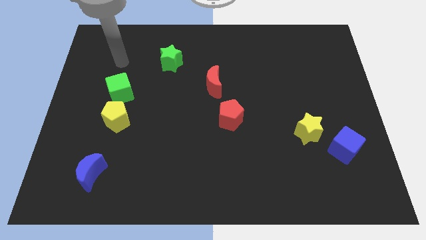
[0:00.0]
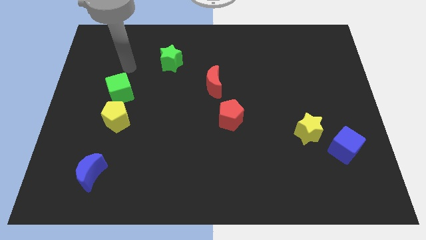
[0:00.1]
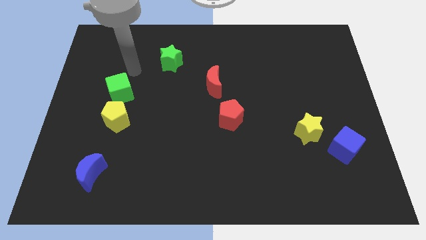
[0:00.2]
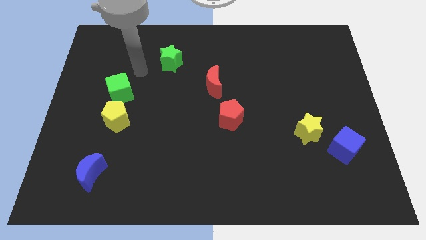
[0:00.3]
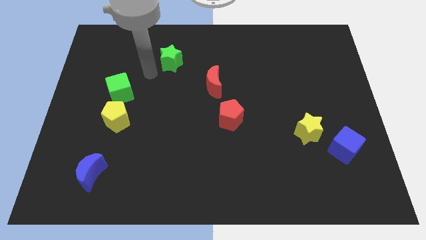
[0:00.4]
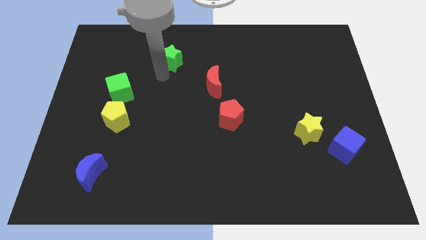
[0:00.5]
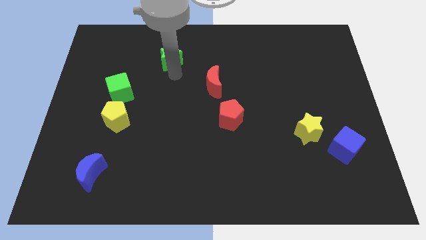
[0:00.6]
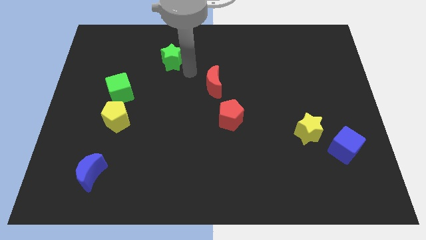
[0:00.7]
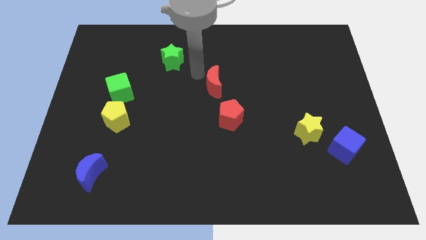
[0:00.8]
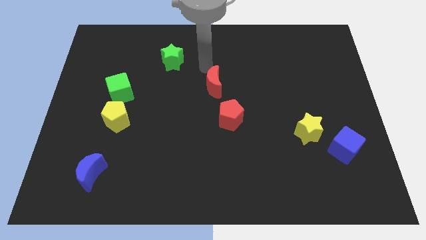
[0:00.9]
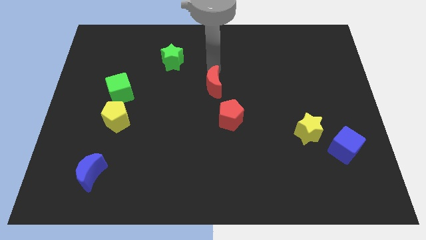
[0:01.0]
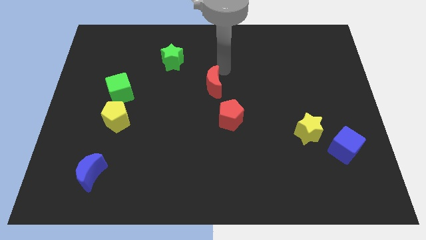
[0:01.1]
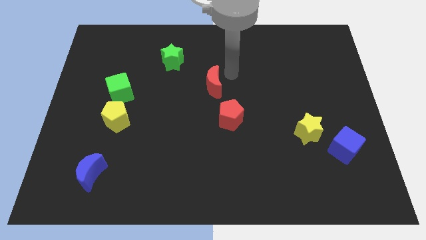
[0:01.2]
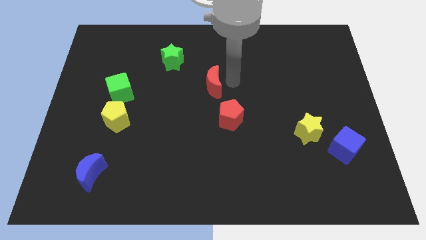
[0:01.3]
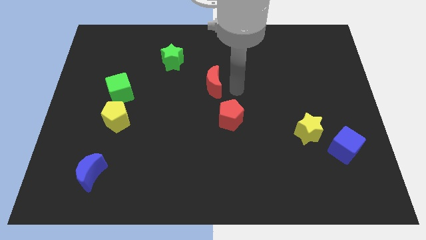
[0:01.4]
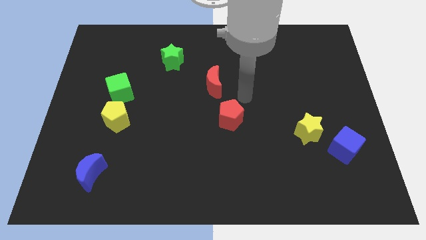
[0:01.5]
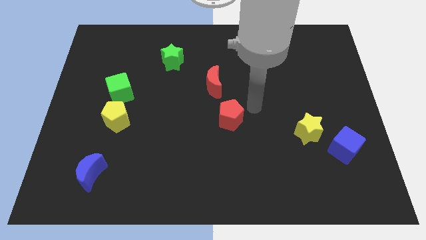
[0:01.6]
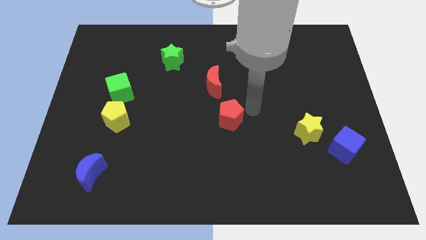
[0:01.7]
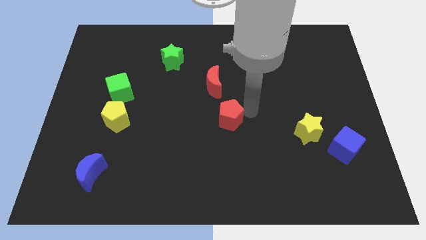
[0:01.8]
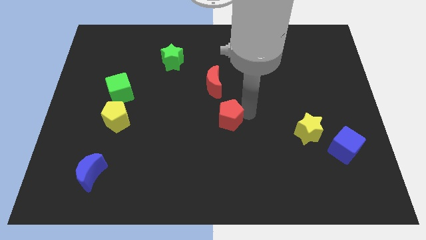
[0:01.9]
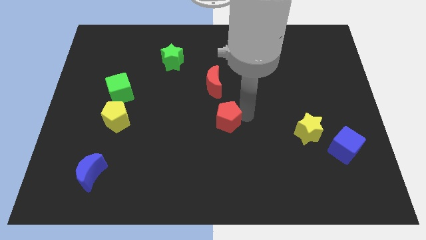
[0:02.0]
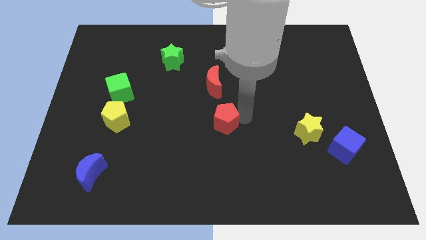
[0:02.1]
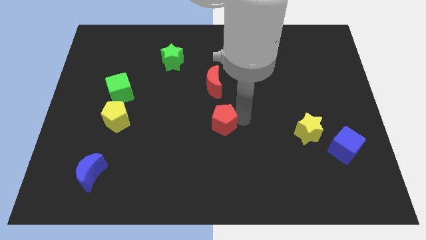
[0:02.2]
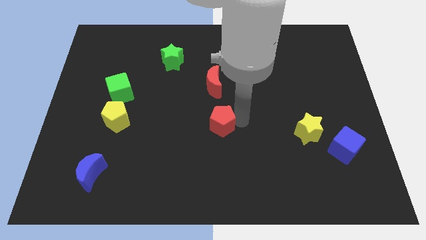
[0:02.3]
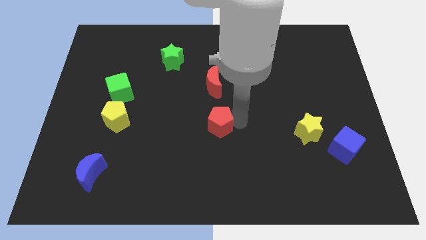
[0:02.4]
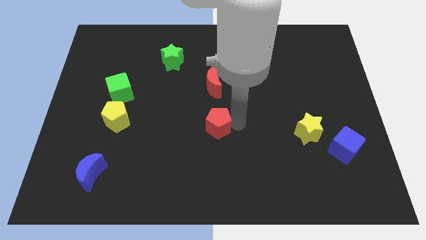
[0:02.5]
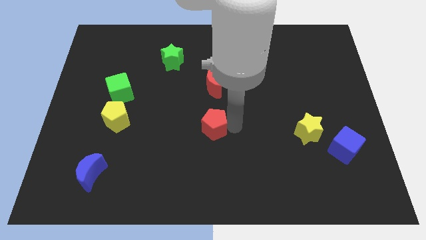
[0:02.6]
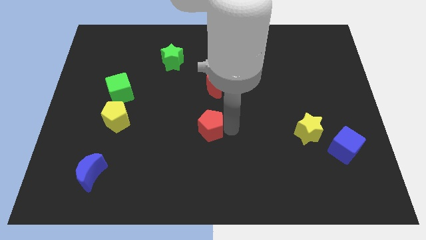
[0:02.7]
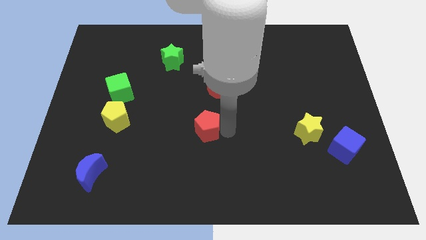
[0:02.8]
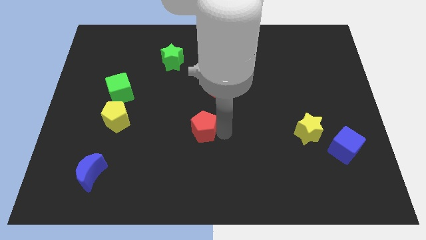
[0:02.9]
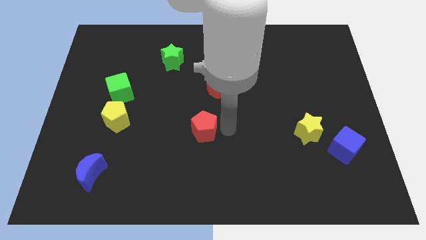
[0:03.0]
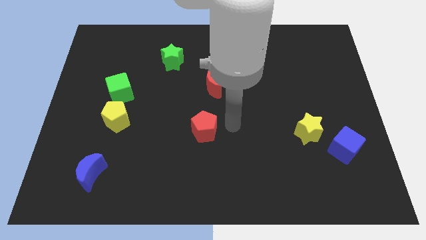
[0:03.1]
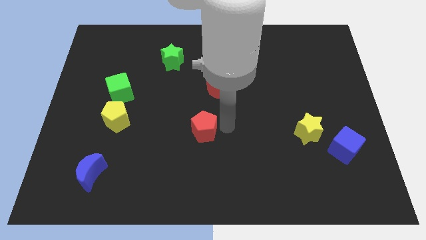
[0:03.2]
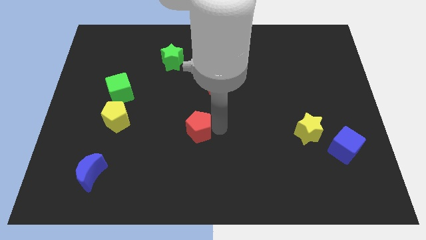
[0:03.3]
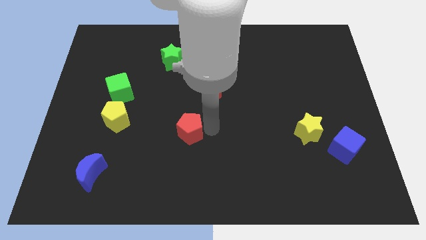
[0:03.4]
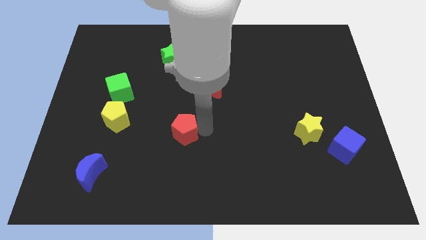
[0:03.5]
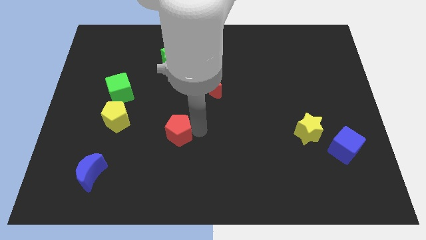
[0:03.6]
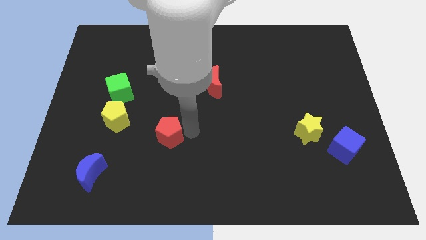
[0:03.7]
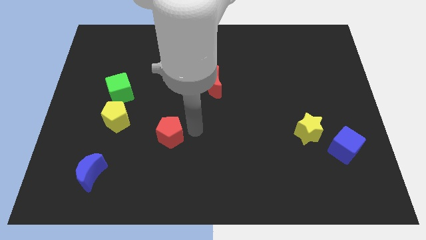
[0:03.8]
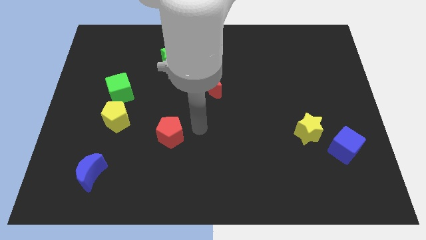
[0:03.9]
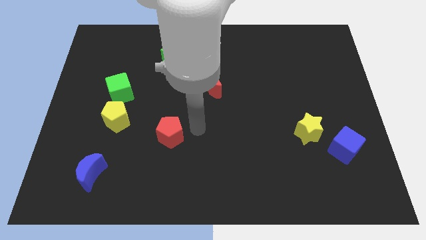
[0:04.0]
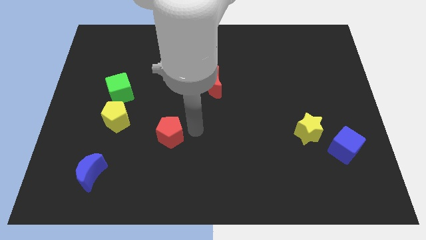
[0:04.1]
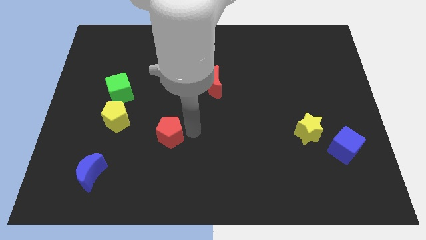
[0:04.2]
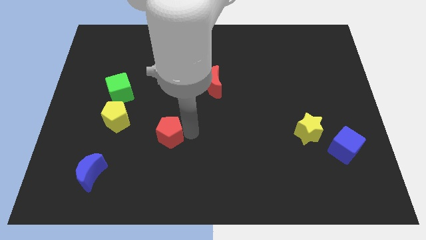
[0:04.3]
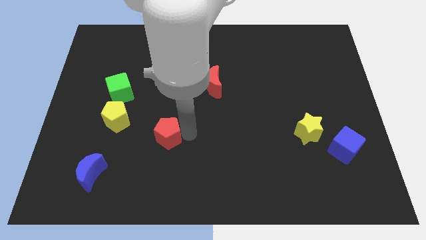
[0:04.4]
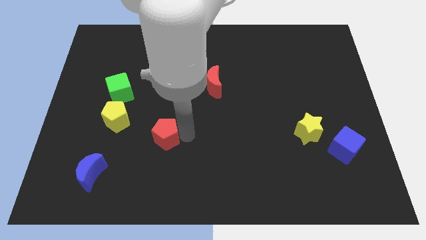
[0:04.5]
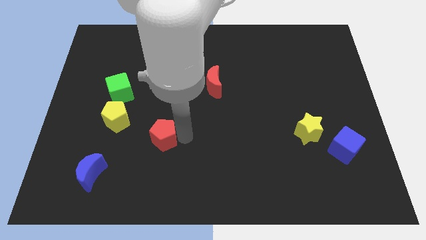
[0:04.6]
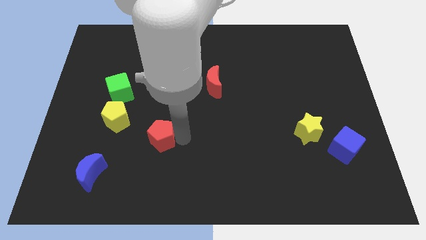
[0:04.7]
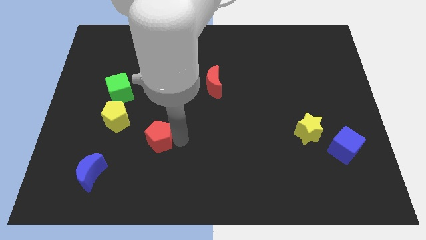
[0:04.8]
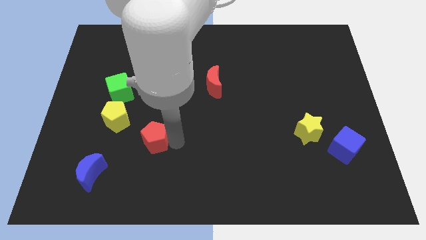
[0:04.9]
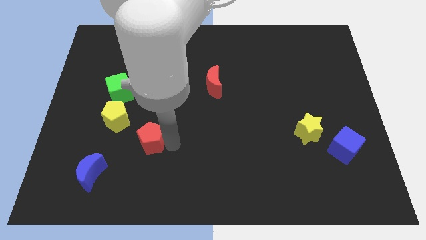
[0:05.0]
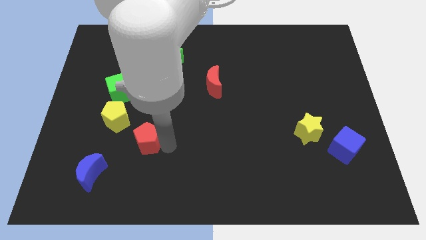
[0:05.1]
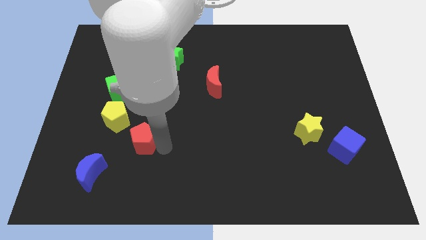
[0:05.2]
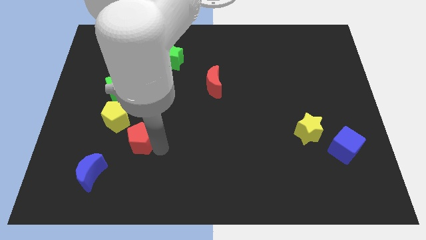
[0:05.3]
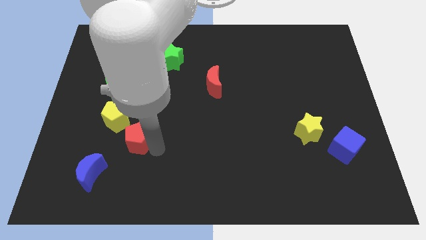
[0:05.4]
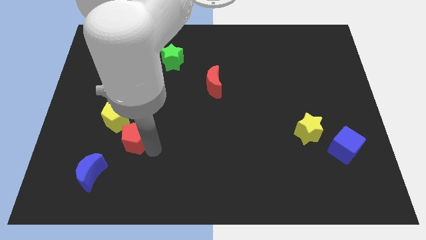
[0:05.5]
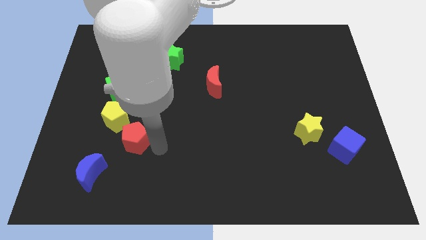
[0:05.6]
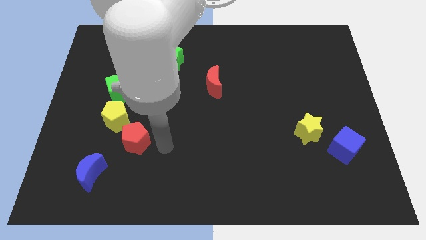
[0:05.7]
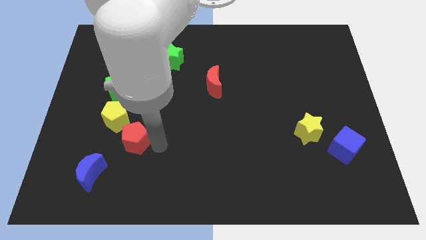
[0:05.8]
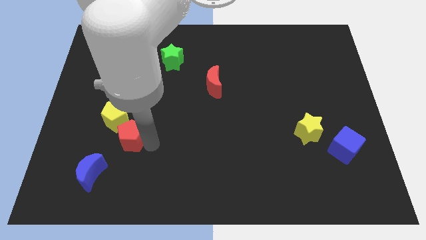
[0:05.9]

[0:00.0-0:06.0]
slide the red pentagon left

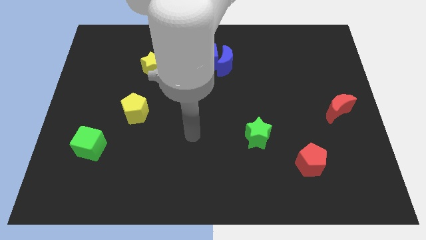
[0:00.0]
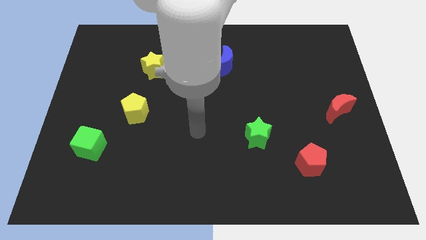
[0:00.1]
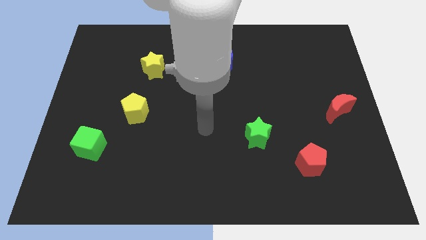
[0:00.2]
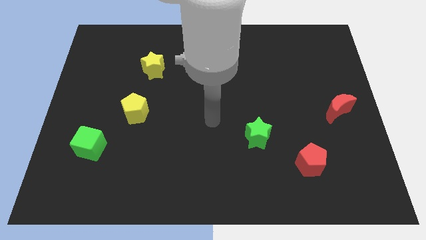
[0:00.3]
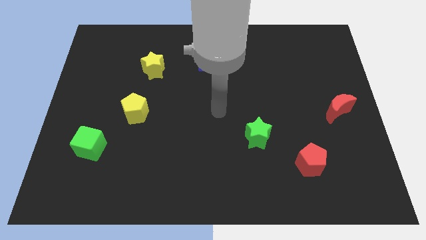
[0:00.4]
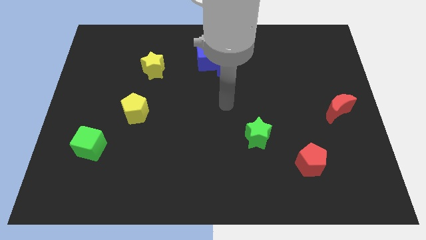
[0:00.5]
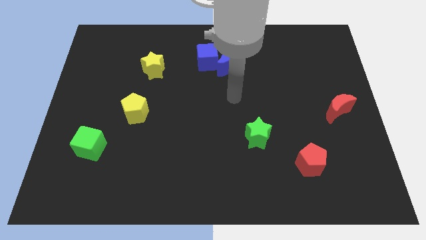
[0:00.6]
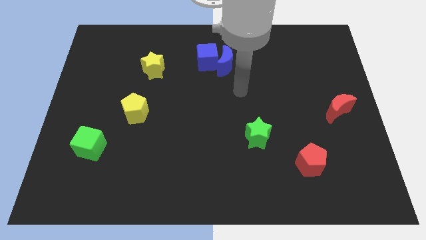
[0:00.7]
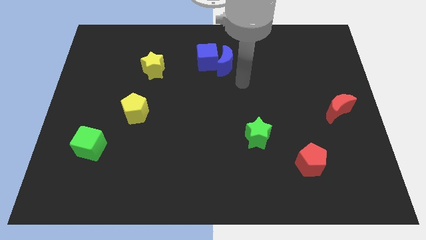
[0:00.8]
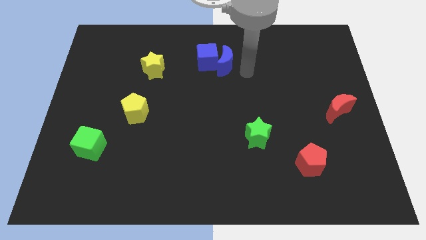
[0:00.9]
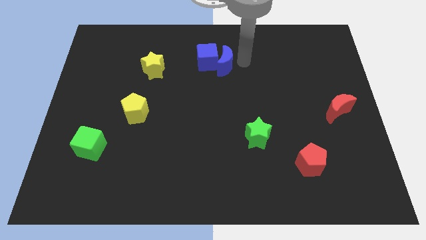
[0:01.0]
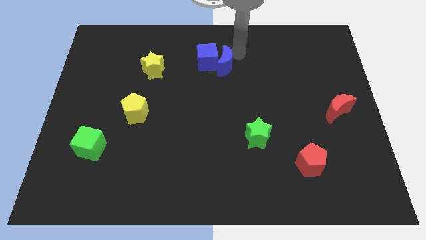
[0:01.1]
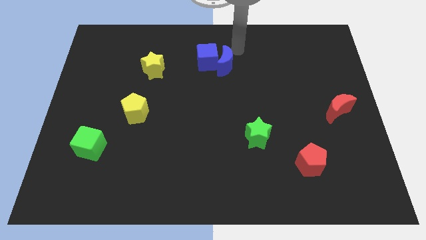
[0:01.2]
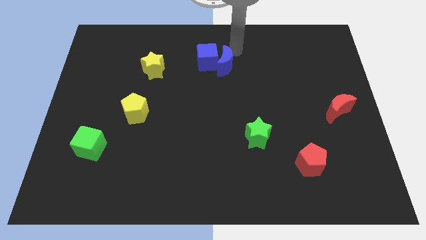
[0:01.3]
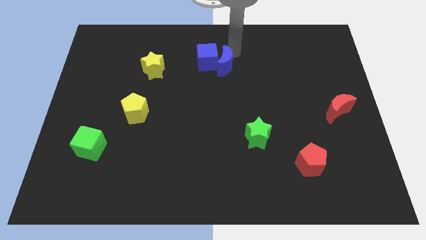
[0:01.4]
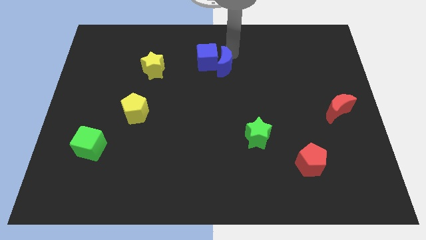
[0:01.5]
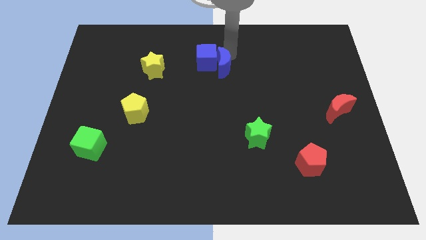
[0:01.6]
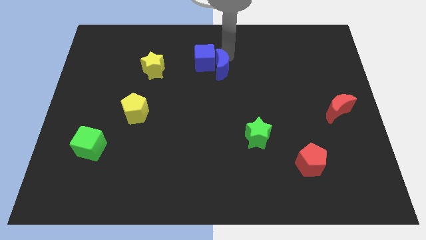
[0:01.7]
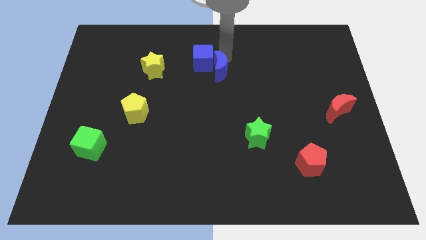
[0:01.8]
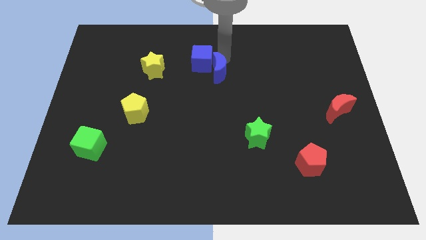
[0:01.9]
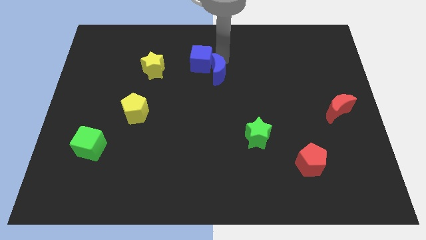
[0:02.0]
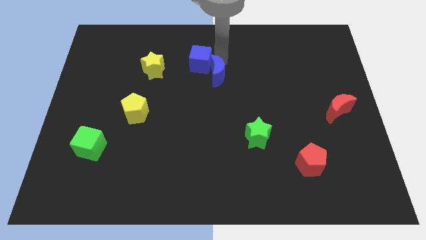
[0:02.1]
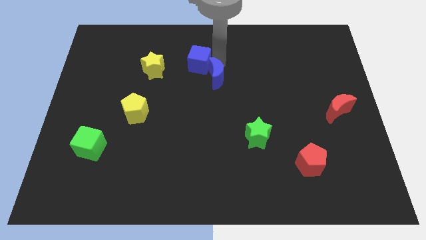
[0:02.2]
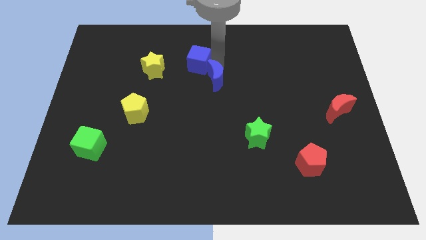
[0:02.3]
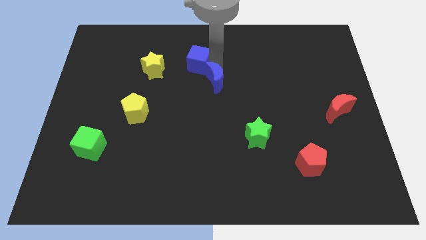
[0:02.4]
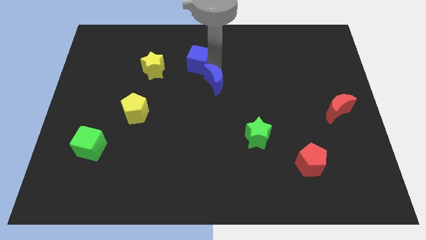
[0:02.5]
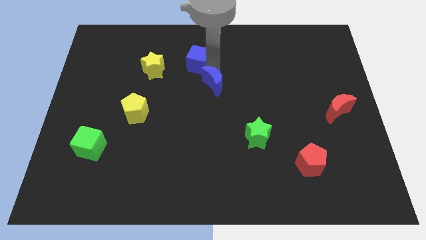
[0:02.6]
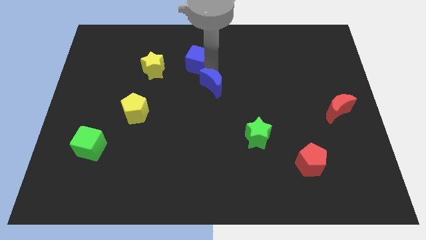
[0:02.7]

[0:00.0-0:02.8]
slightly slide the blue moon down and to the left
